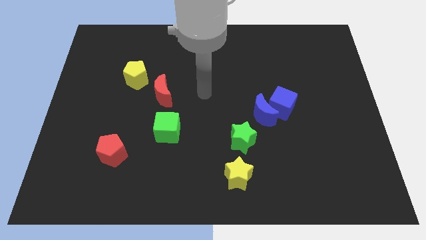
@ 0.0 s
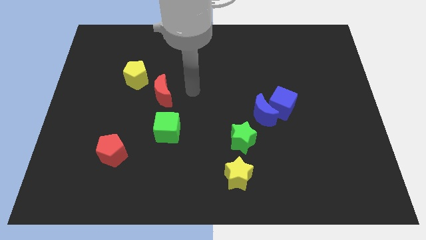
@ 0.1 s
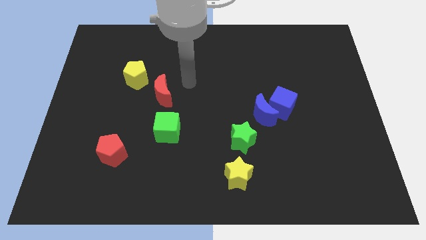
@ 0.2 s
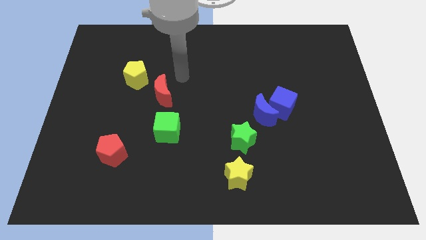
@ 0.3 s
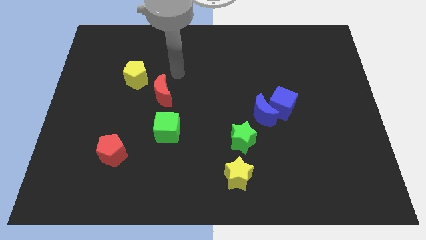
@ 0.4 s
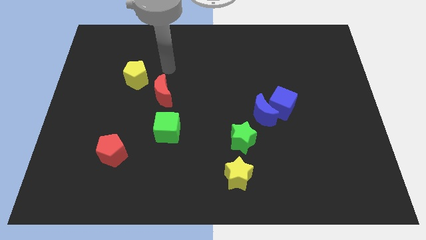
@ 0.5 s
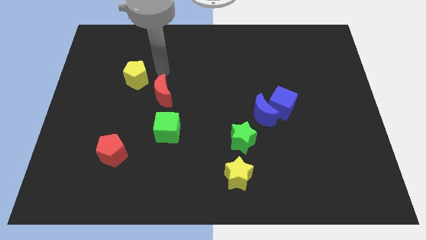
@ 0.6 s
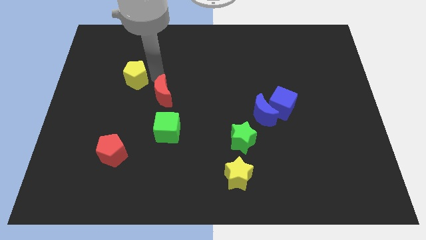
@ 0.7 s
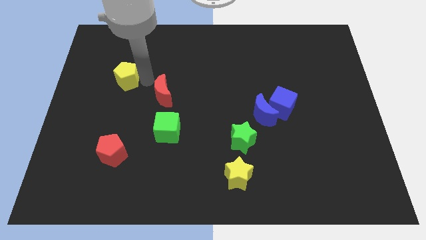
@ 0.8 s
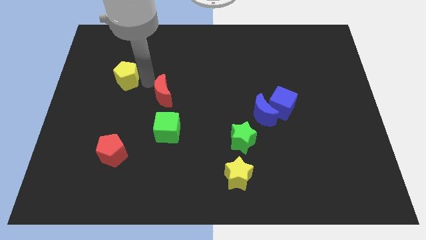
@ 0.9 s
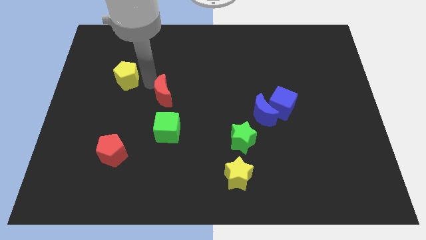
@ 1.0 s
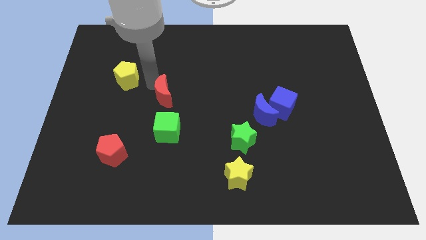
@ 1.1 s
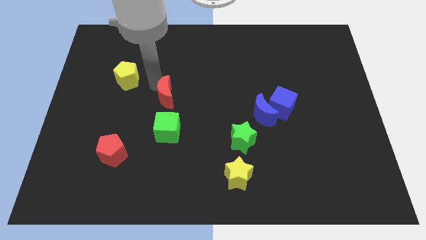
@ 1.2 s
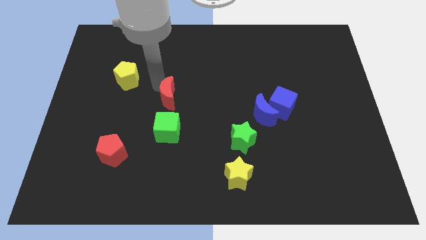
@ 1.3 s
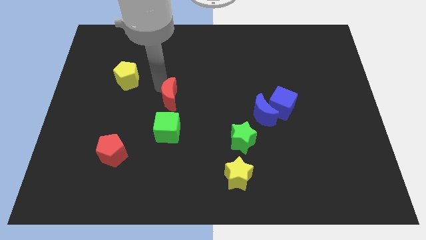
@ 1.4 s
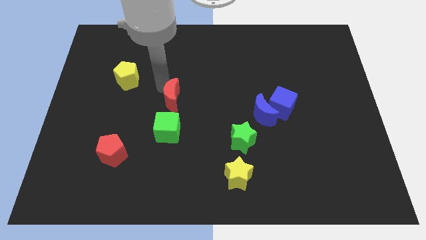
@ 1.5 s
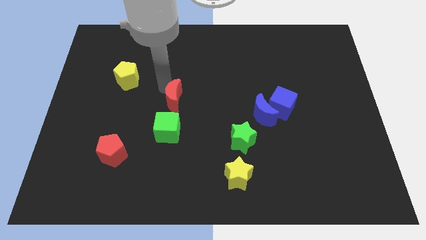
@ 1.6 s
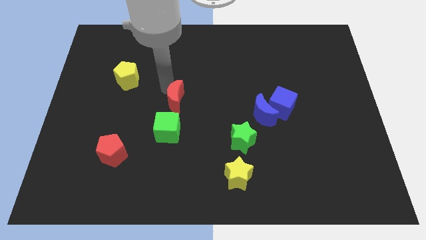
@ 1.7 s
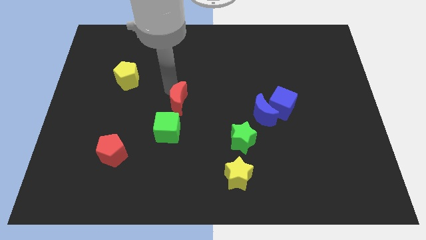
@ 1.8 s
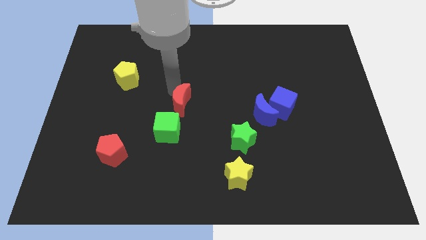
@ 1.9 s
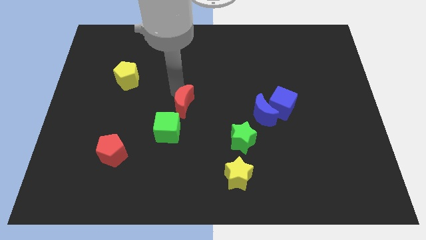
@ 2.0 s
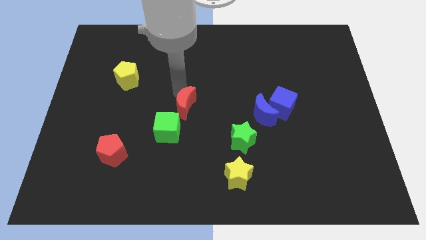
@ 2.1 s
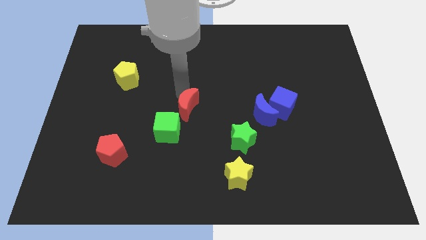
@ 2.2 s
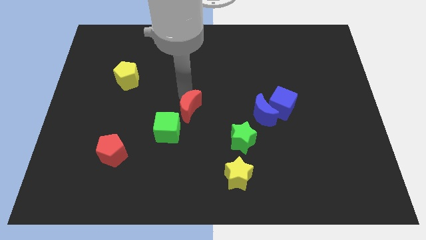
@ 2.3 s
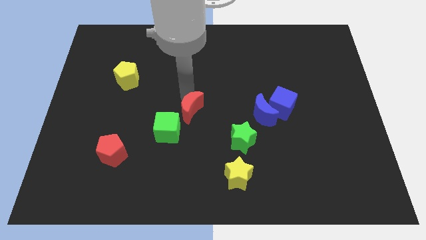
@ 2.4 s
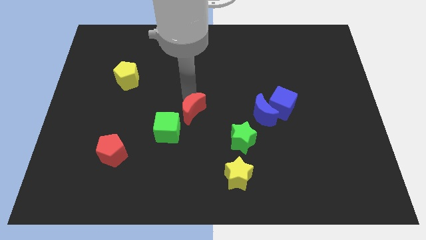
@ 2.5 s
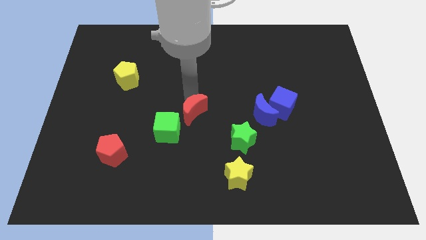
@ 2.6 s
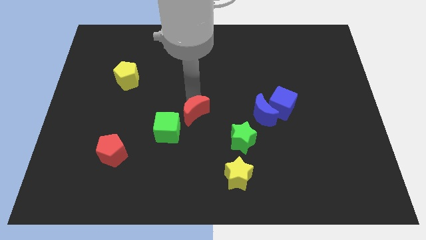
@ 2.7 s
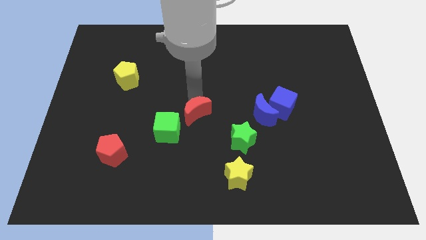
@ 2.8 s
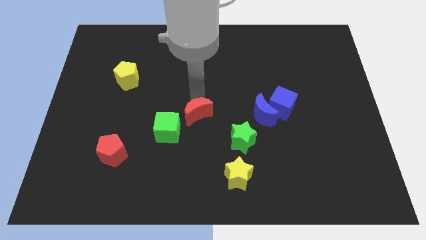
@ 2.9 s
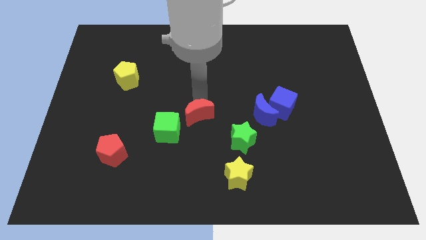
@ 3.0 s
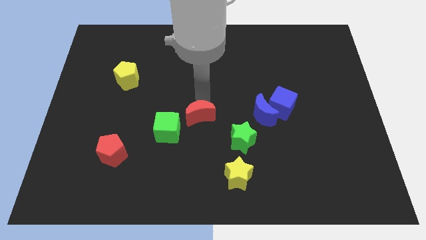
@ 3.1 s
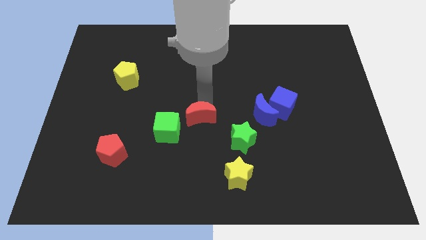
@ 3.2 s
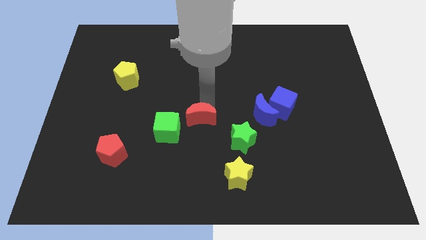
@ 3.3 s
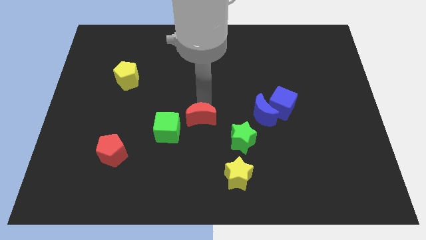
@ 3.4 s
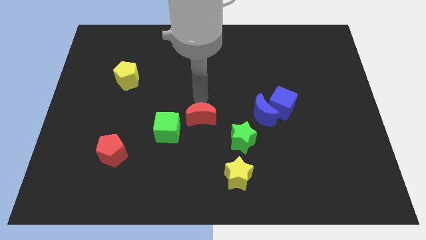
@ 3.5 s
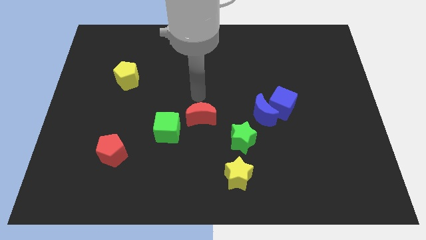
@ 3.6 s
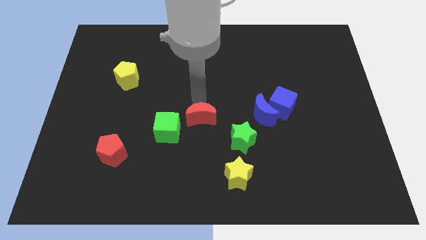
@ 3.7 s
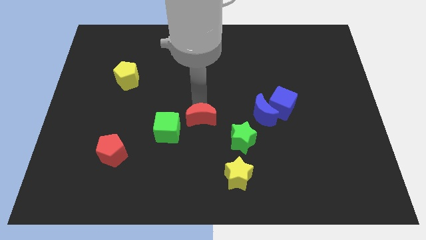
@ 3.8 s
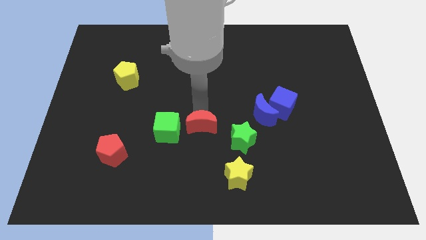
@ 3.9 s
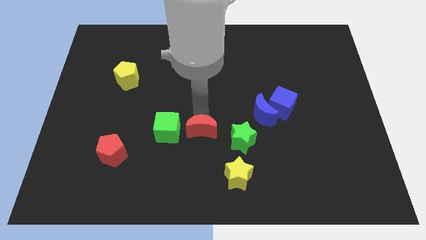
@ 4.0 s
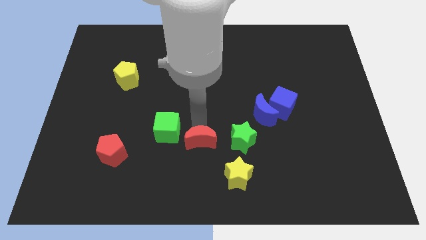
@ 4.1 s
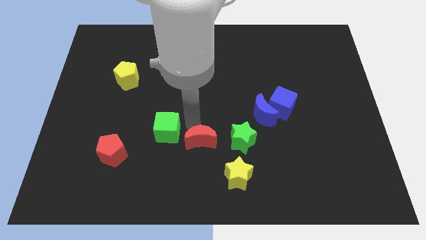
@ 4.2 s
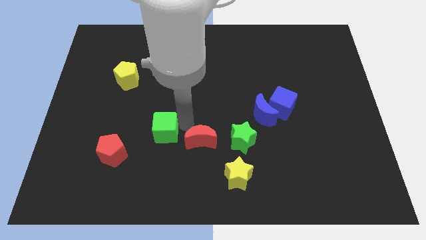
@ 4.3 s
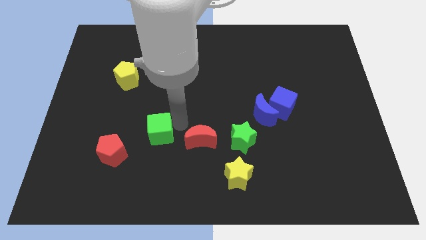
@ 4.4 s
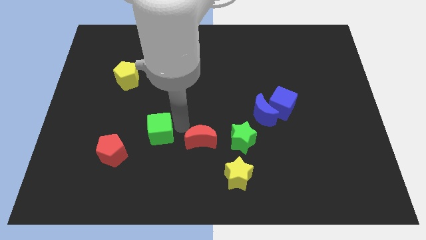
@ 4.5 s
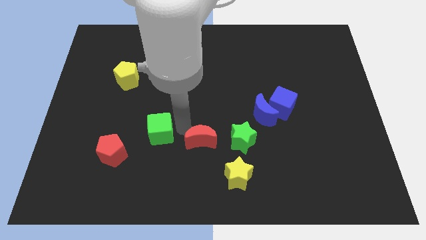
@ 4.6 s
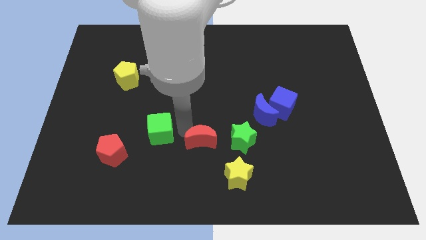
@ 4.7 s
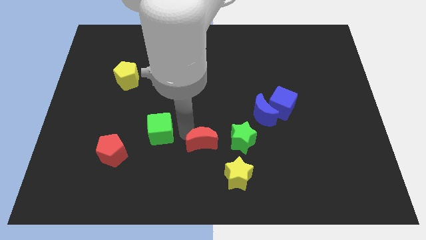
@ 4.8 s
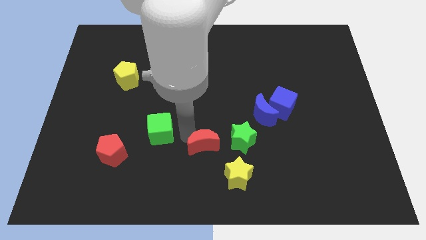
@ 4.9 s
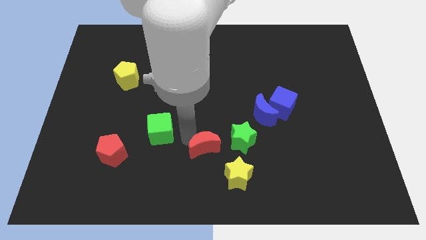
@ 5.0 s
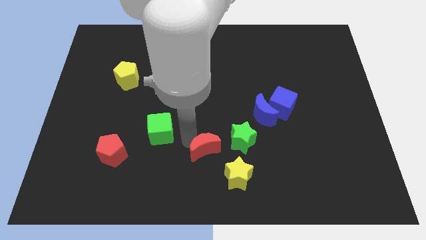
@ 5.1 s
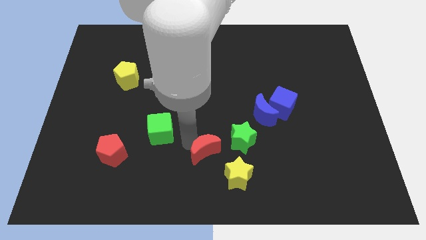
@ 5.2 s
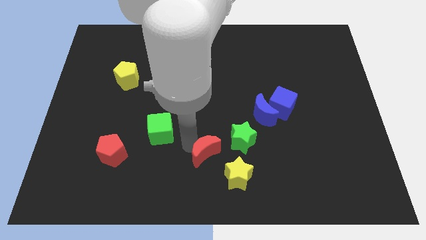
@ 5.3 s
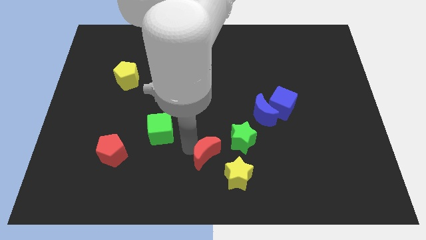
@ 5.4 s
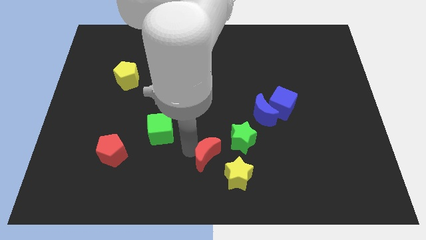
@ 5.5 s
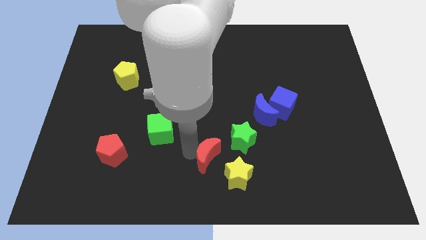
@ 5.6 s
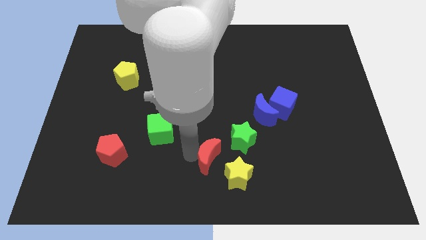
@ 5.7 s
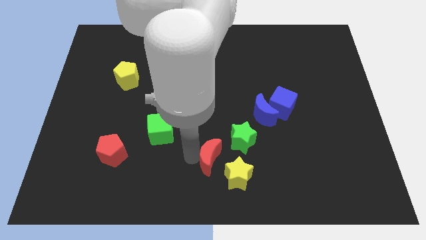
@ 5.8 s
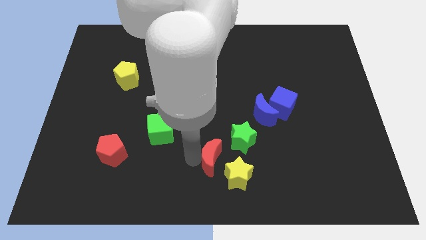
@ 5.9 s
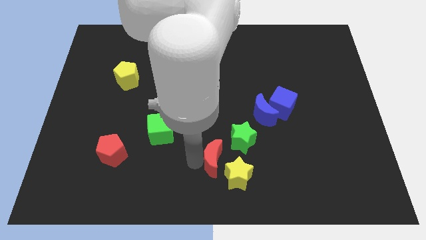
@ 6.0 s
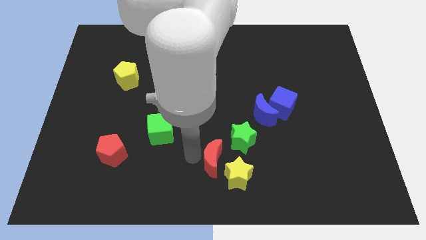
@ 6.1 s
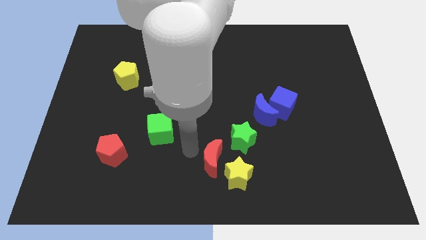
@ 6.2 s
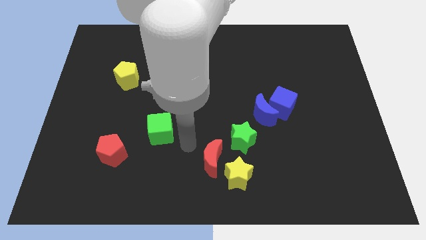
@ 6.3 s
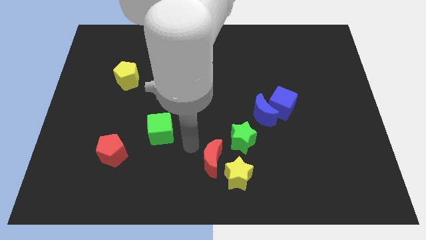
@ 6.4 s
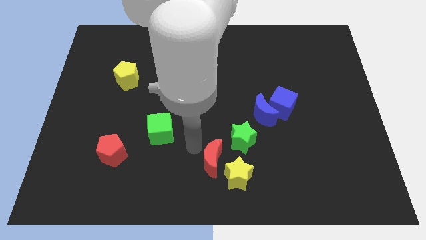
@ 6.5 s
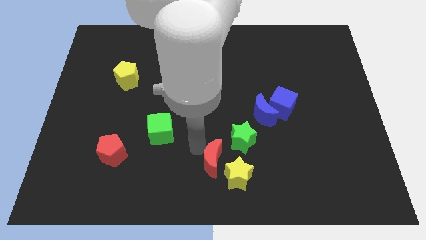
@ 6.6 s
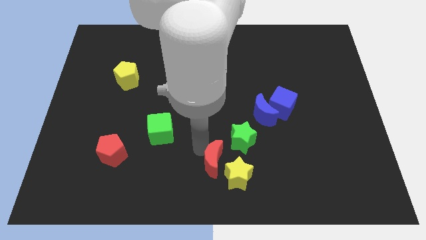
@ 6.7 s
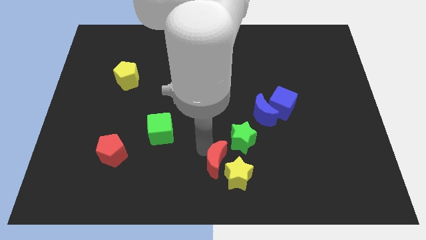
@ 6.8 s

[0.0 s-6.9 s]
push the red moon close to the yellow star

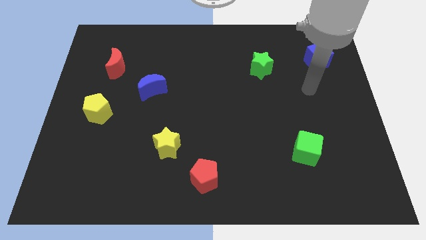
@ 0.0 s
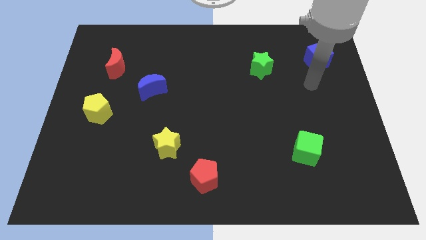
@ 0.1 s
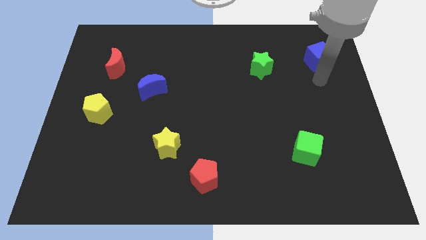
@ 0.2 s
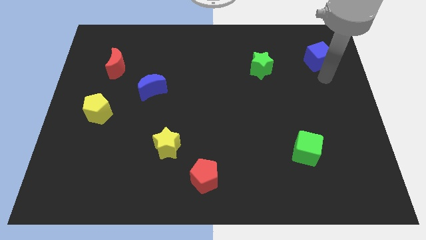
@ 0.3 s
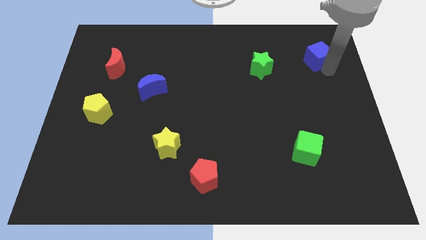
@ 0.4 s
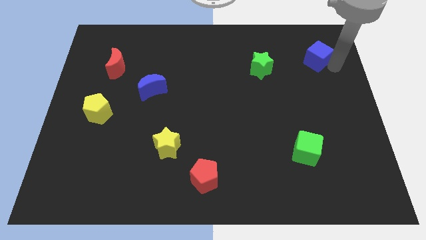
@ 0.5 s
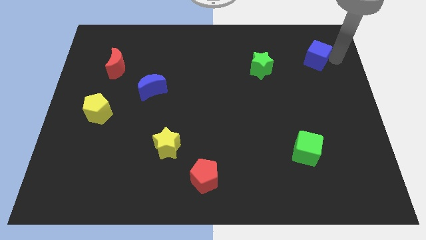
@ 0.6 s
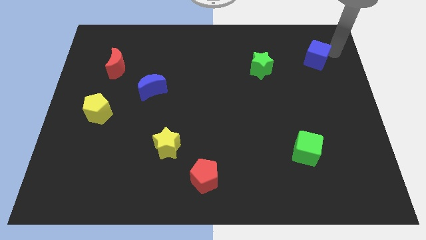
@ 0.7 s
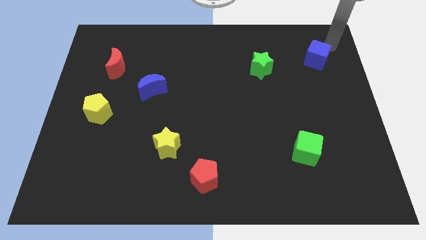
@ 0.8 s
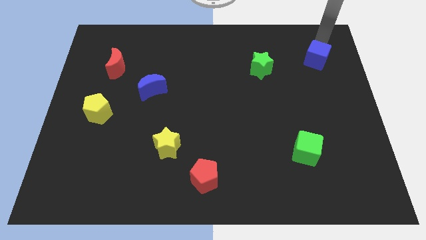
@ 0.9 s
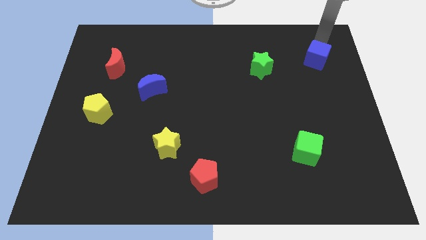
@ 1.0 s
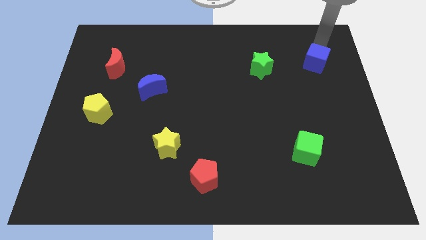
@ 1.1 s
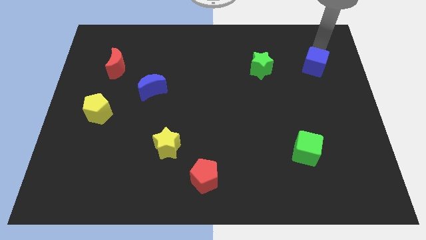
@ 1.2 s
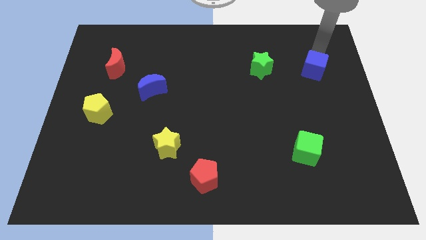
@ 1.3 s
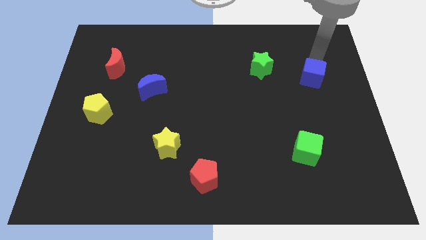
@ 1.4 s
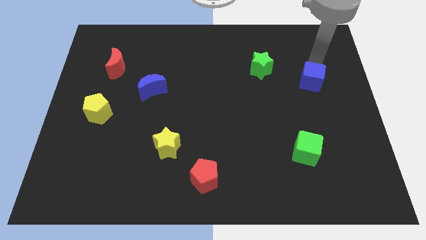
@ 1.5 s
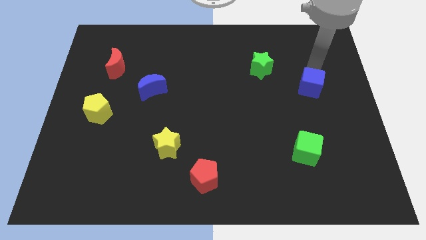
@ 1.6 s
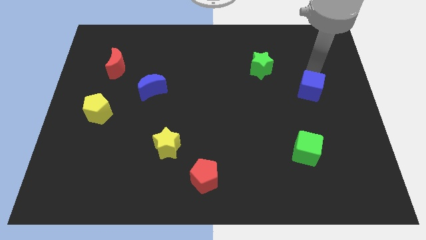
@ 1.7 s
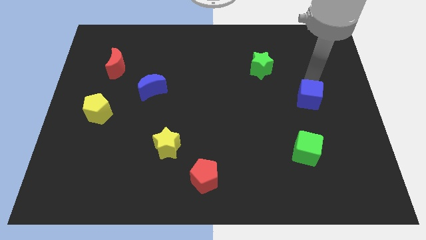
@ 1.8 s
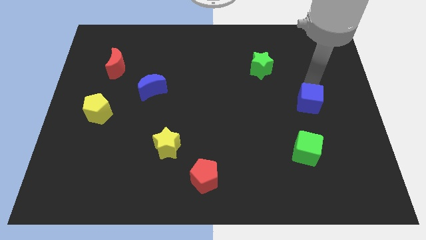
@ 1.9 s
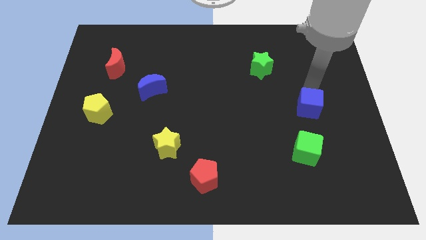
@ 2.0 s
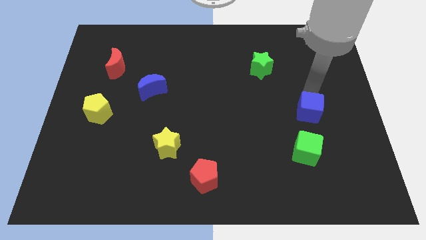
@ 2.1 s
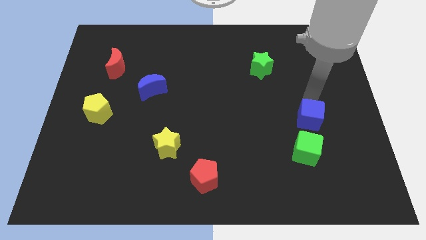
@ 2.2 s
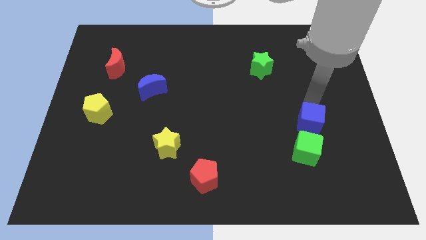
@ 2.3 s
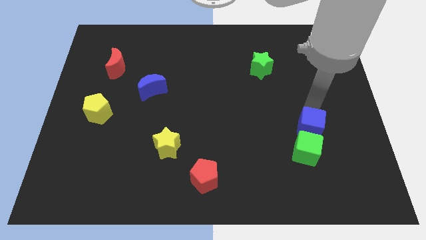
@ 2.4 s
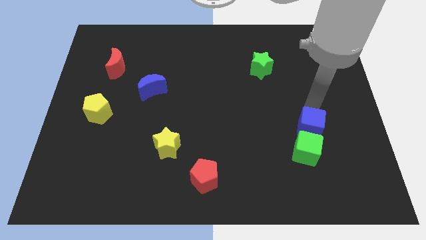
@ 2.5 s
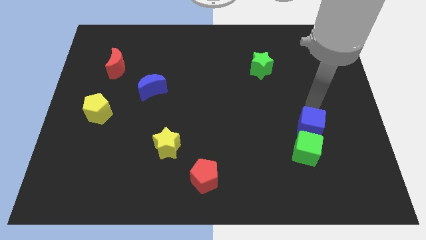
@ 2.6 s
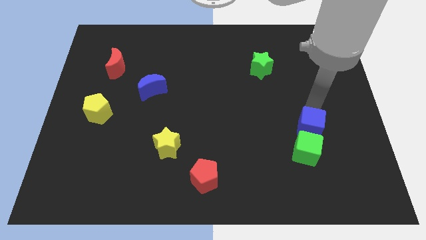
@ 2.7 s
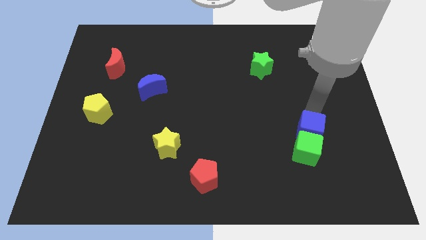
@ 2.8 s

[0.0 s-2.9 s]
move the blue cube next to the green cube
